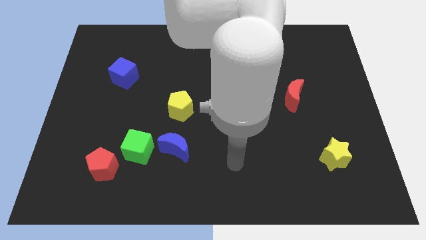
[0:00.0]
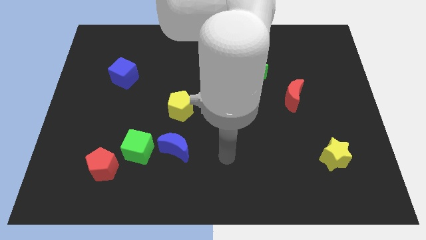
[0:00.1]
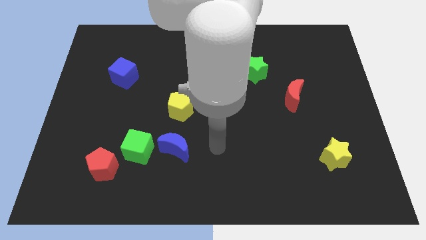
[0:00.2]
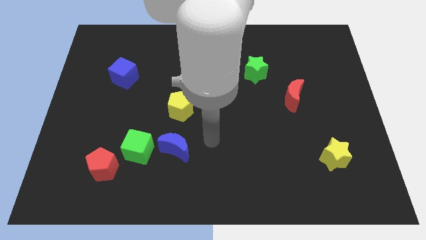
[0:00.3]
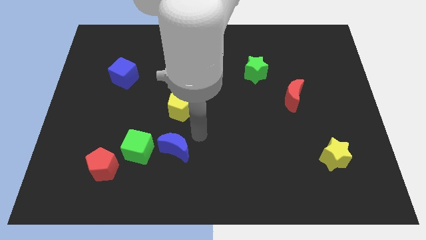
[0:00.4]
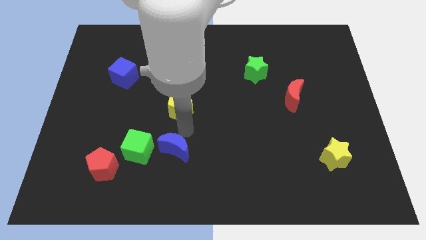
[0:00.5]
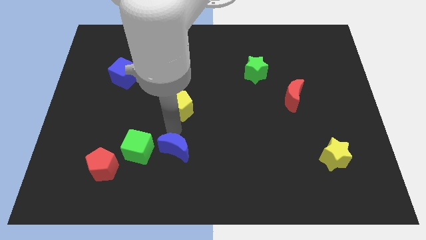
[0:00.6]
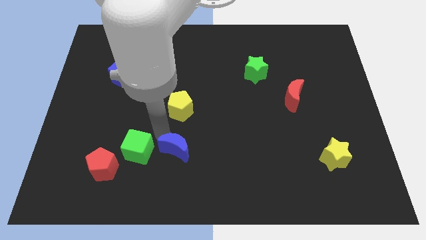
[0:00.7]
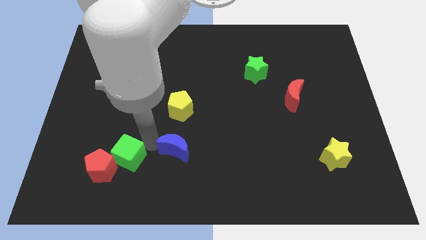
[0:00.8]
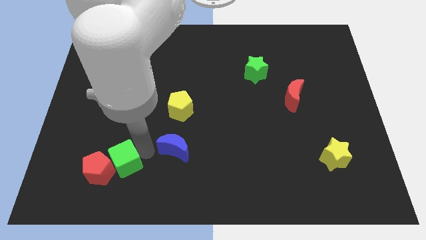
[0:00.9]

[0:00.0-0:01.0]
separate the blue moon from the green cube

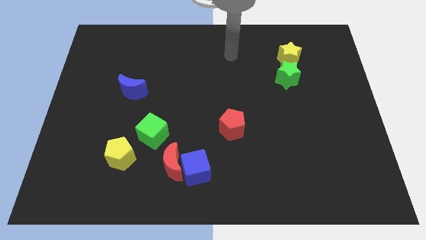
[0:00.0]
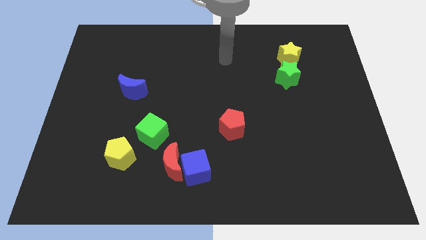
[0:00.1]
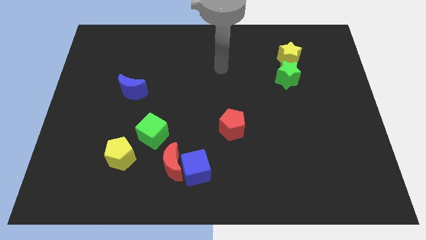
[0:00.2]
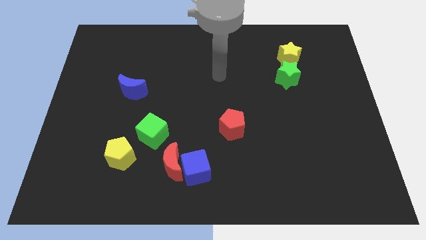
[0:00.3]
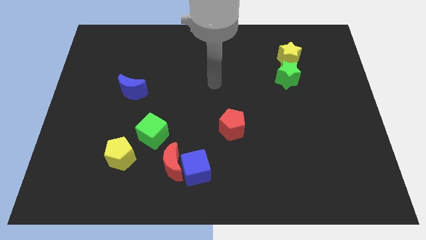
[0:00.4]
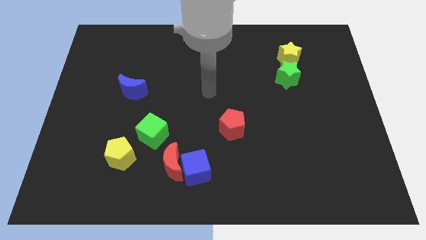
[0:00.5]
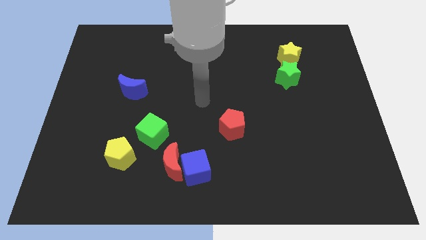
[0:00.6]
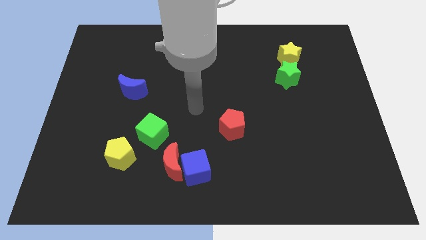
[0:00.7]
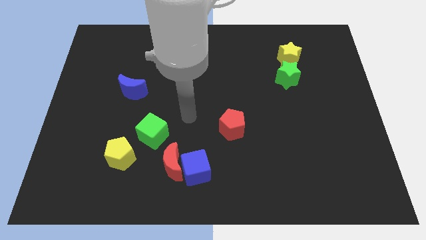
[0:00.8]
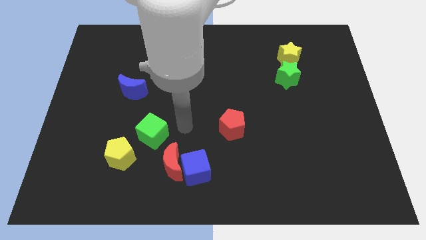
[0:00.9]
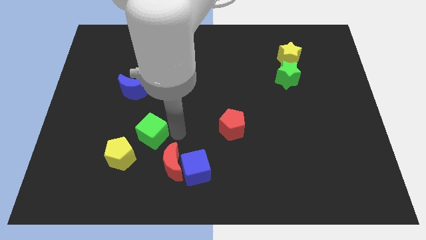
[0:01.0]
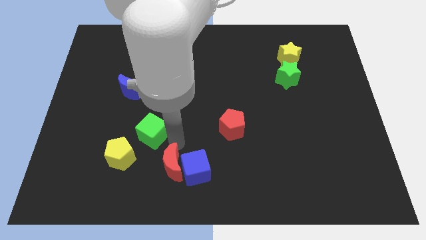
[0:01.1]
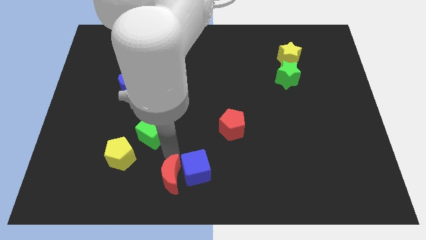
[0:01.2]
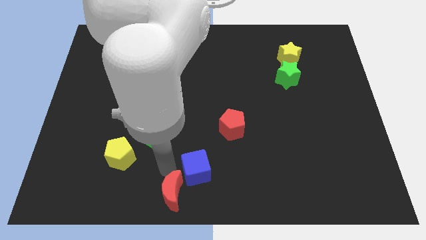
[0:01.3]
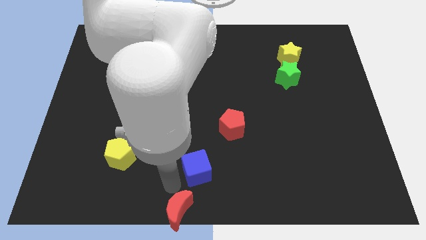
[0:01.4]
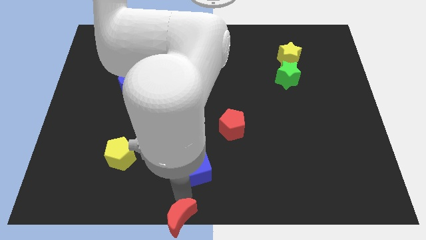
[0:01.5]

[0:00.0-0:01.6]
move the blue cube away from the red moon

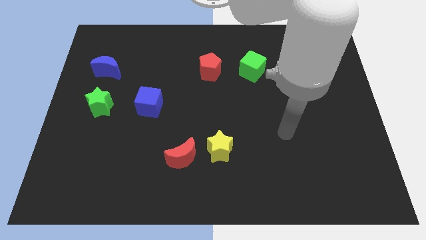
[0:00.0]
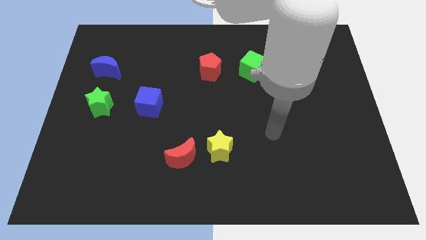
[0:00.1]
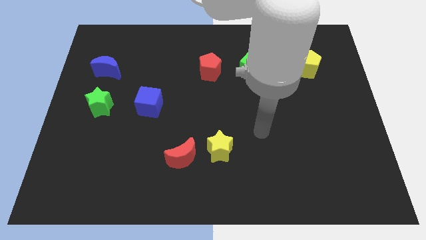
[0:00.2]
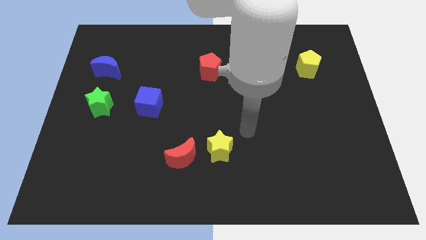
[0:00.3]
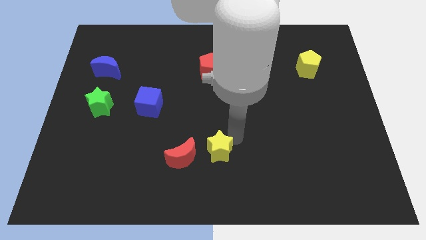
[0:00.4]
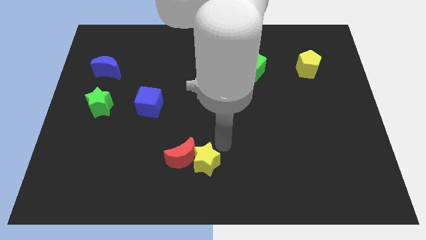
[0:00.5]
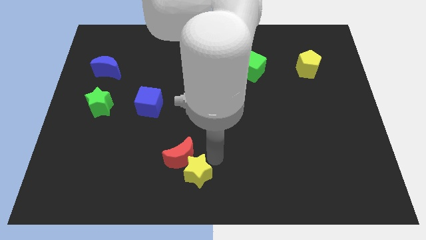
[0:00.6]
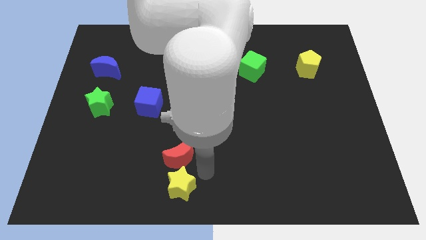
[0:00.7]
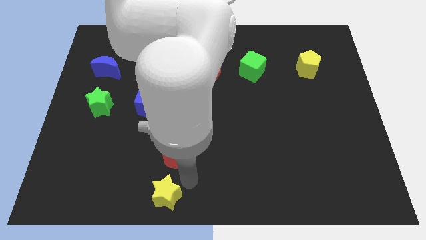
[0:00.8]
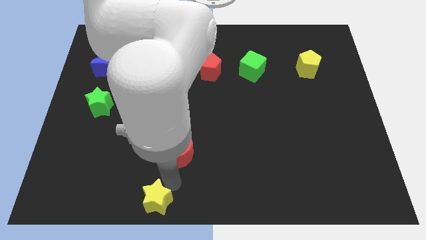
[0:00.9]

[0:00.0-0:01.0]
separate the red moon from the yellow star

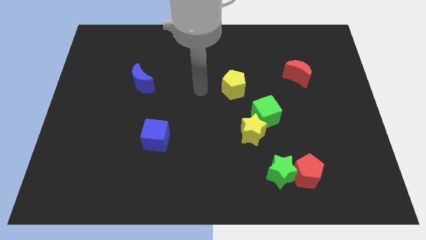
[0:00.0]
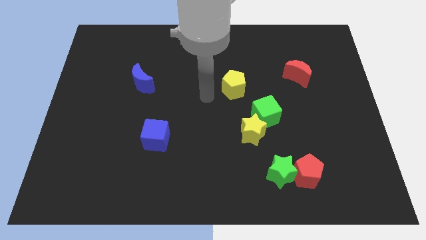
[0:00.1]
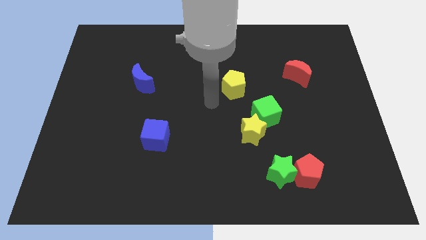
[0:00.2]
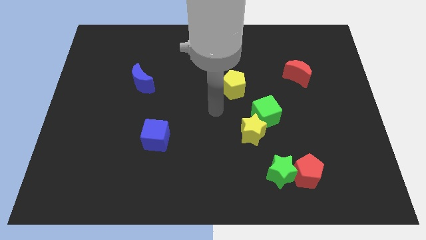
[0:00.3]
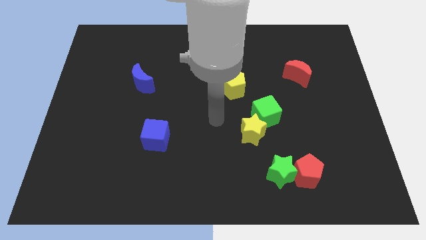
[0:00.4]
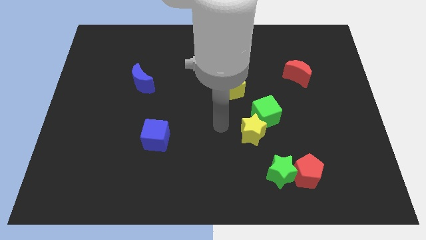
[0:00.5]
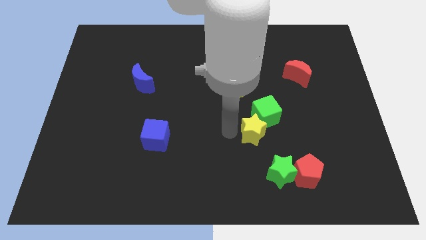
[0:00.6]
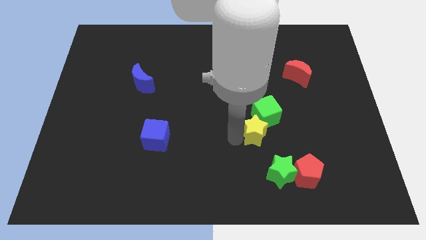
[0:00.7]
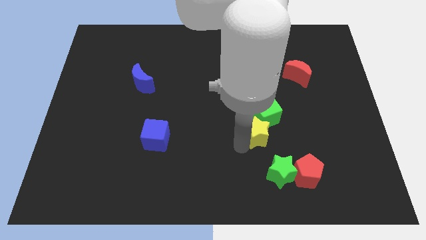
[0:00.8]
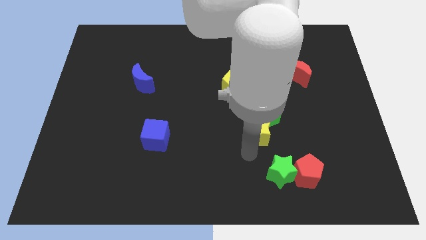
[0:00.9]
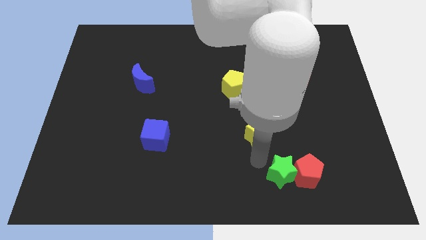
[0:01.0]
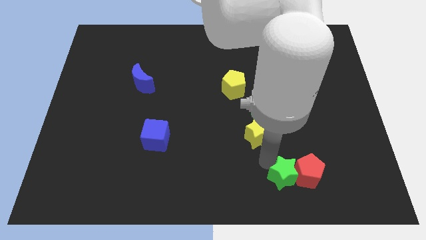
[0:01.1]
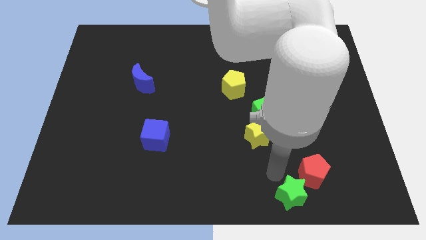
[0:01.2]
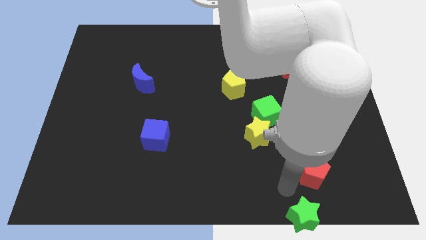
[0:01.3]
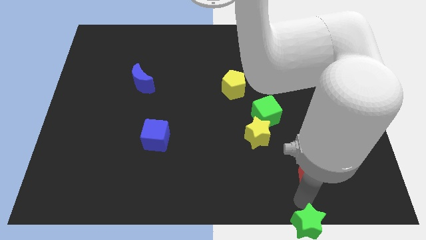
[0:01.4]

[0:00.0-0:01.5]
pull the red pentagon apart from the green star

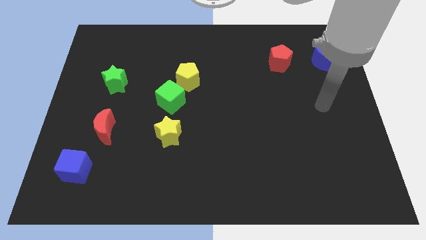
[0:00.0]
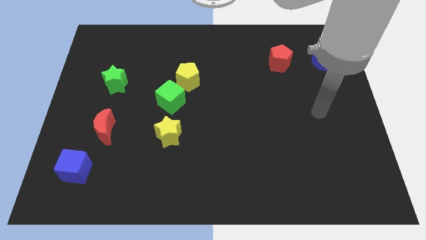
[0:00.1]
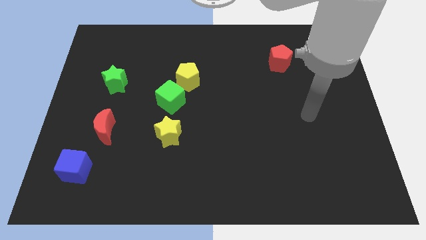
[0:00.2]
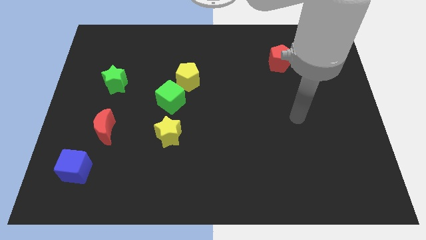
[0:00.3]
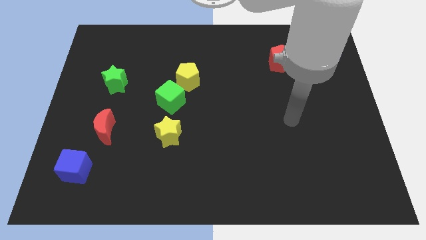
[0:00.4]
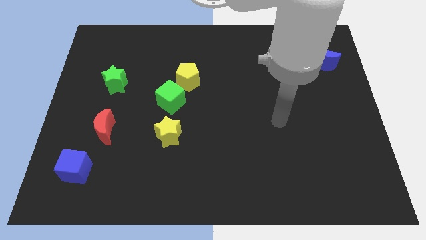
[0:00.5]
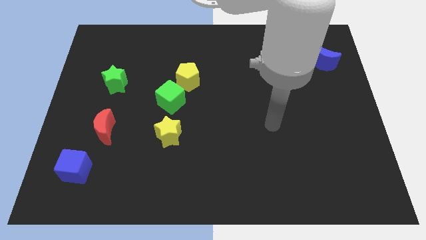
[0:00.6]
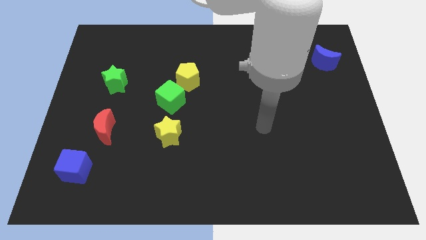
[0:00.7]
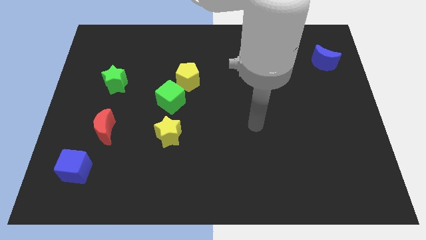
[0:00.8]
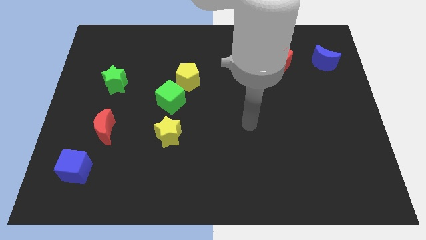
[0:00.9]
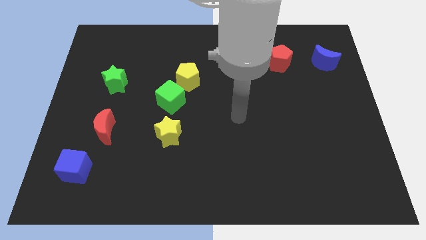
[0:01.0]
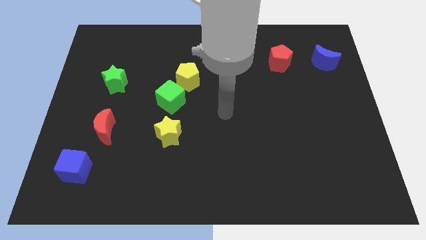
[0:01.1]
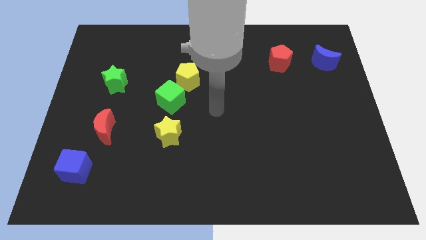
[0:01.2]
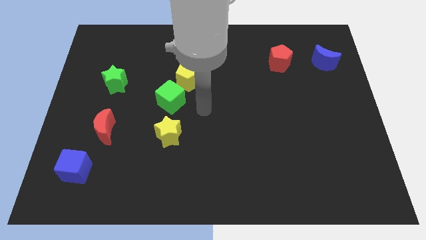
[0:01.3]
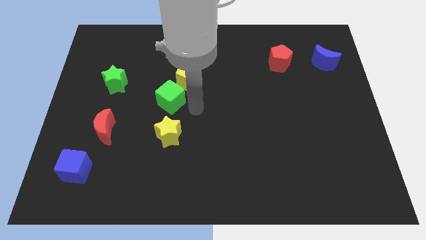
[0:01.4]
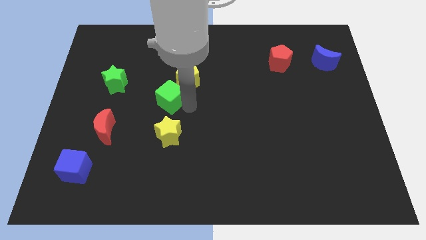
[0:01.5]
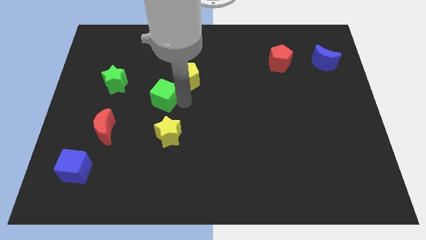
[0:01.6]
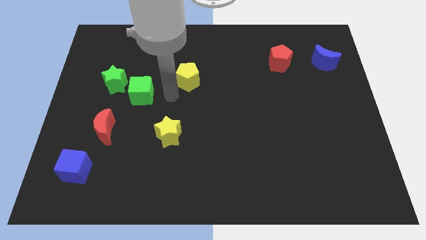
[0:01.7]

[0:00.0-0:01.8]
move the yellow pentagon away from the green cube

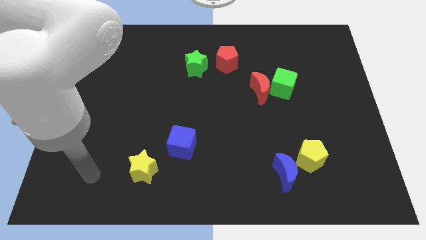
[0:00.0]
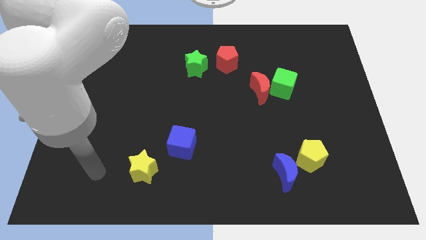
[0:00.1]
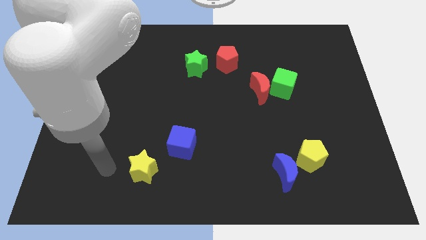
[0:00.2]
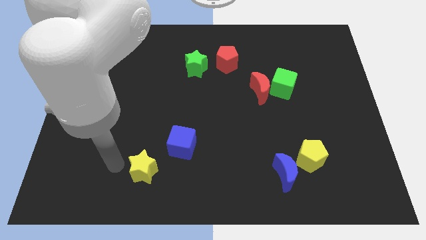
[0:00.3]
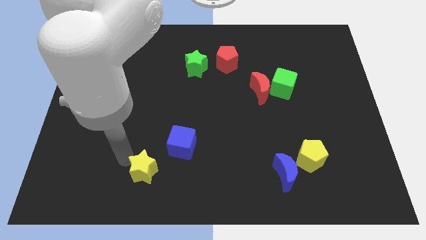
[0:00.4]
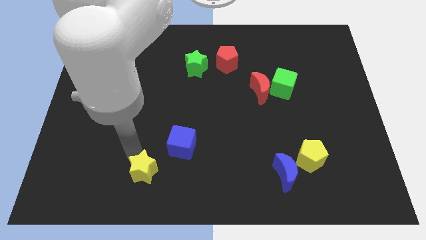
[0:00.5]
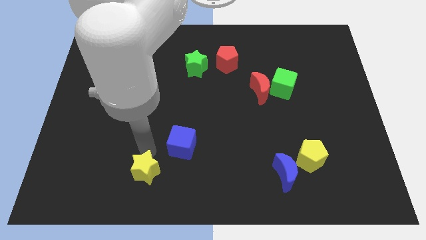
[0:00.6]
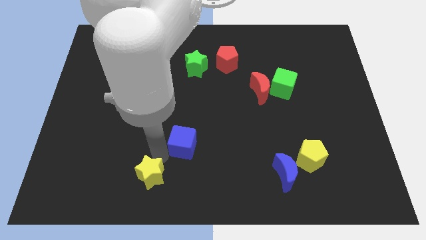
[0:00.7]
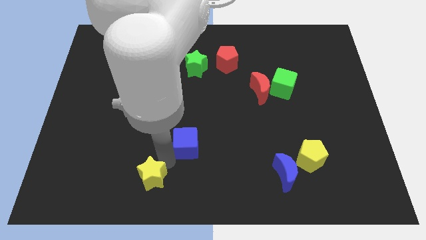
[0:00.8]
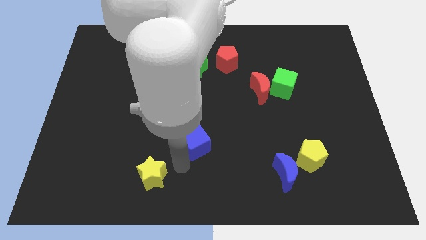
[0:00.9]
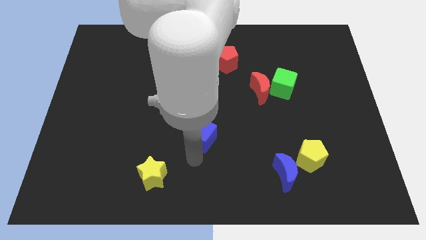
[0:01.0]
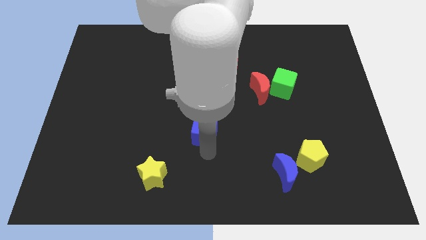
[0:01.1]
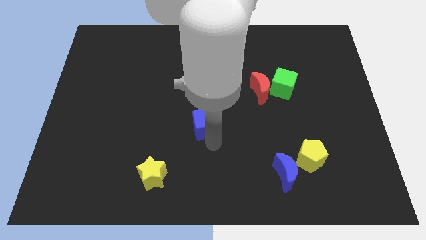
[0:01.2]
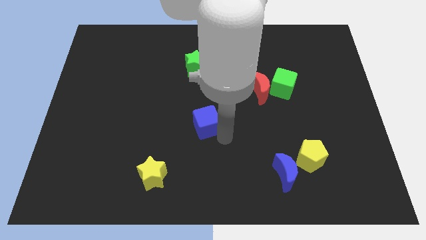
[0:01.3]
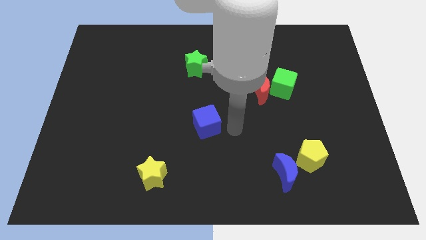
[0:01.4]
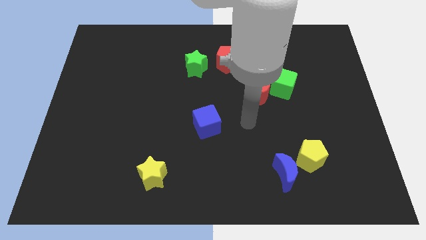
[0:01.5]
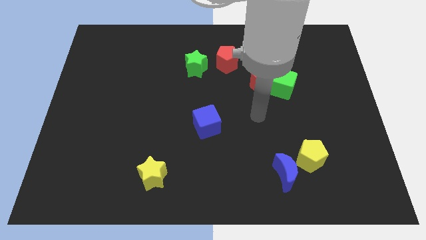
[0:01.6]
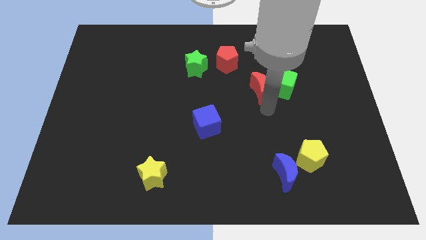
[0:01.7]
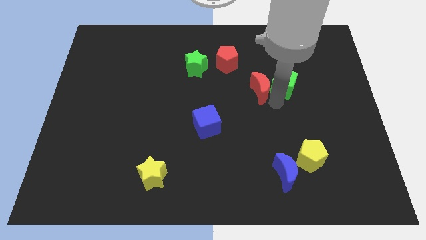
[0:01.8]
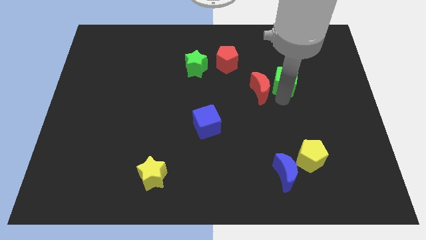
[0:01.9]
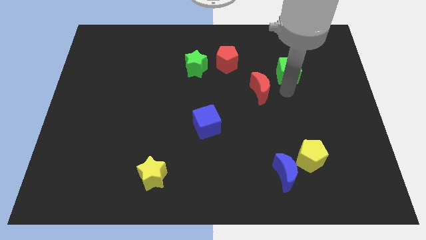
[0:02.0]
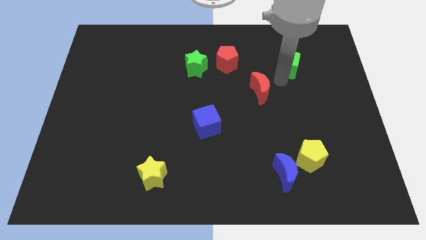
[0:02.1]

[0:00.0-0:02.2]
pull the red moon apart from the green cube

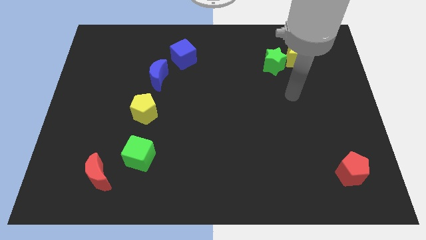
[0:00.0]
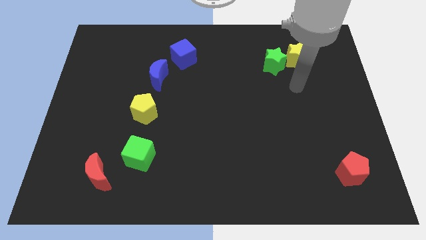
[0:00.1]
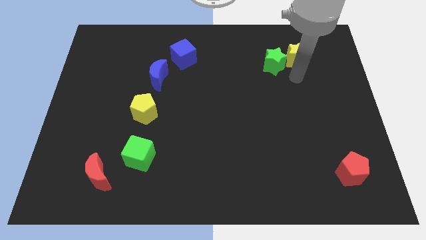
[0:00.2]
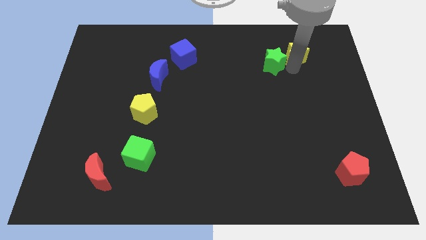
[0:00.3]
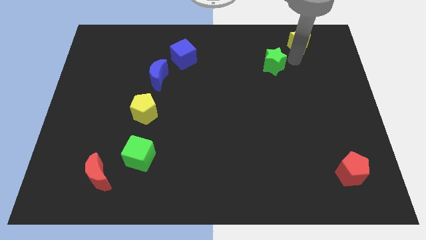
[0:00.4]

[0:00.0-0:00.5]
pull the green star apart from the yellow star
